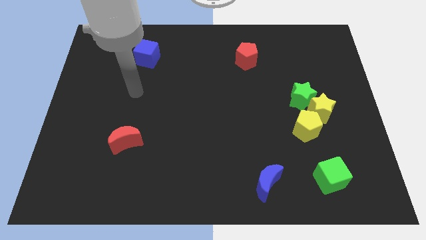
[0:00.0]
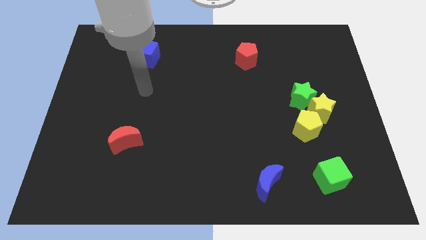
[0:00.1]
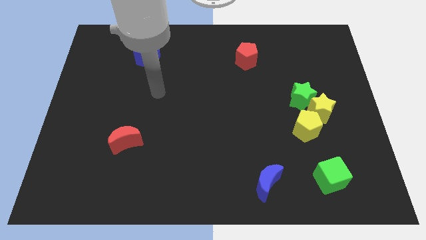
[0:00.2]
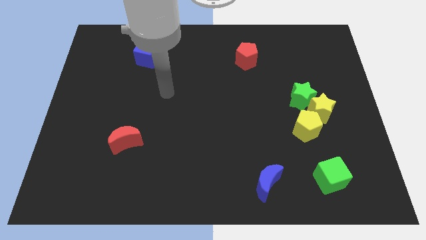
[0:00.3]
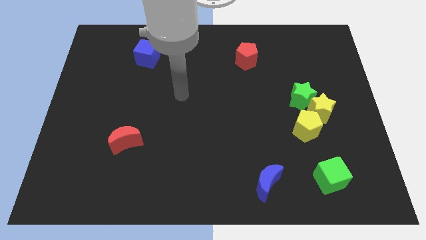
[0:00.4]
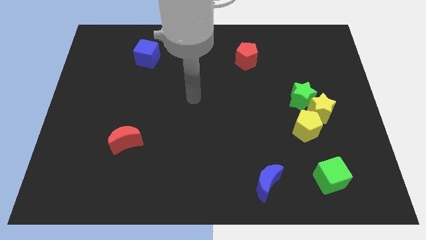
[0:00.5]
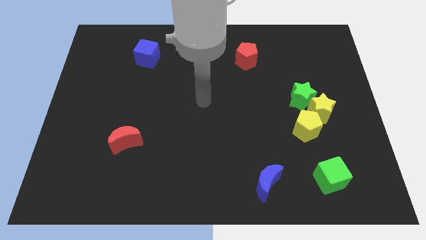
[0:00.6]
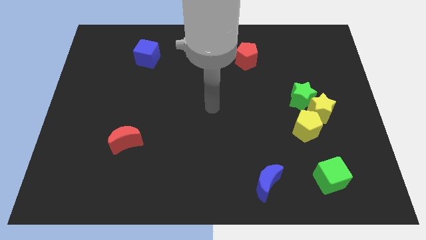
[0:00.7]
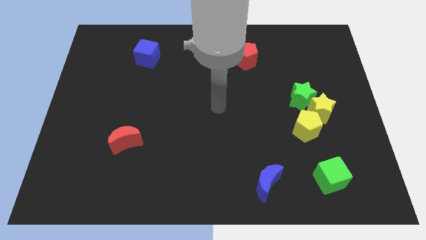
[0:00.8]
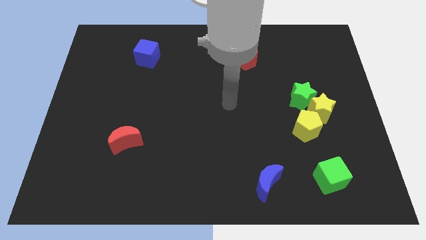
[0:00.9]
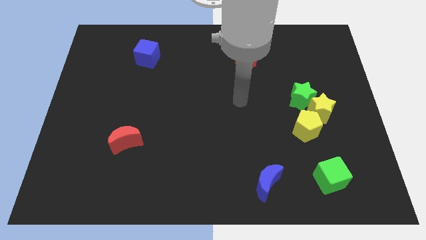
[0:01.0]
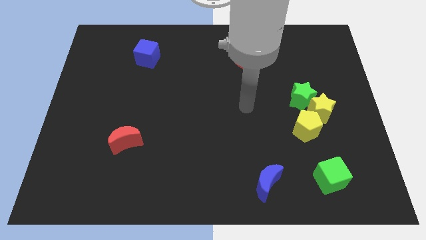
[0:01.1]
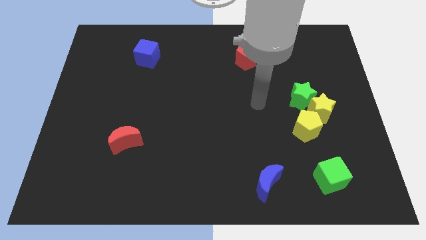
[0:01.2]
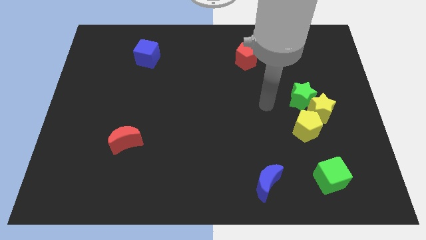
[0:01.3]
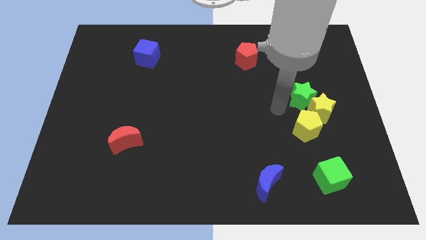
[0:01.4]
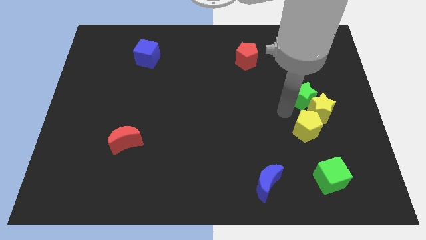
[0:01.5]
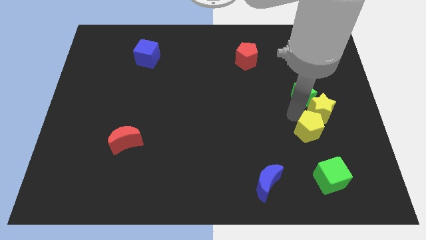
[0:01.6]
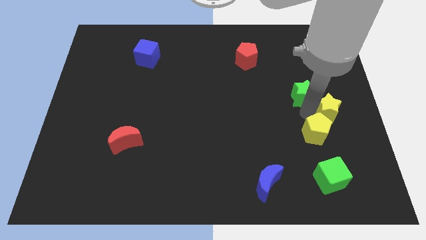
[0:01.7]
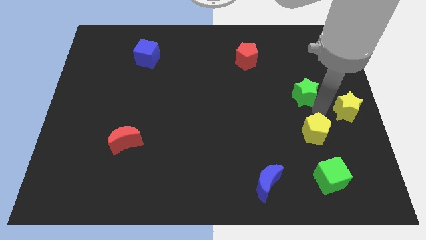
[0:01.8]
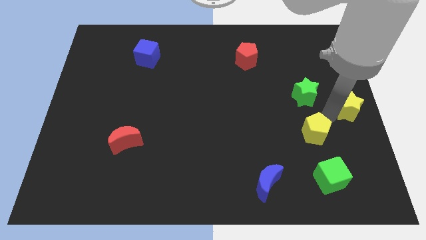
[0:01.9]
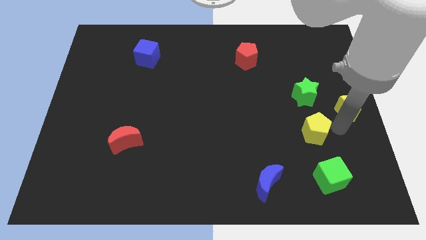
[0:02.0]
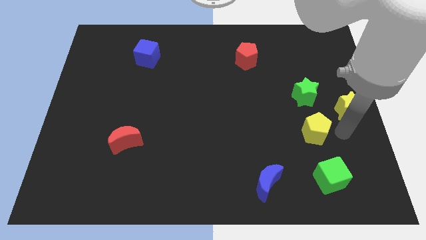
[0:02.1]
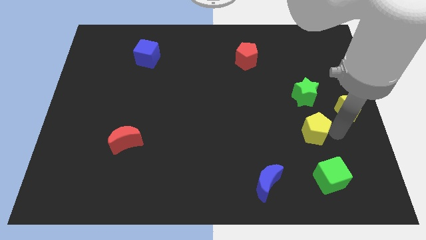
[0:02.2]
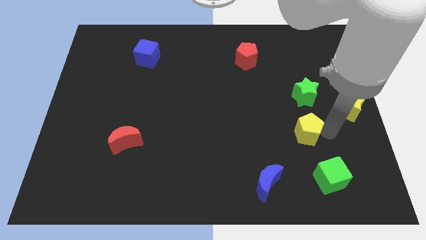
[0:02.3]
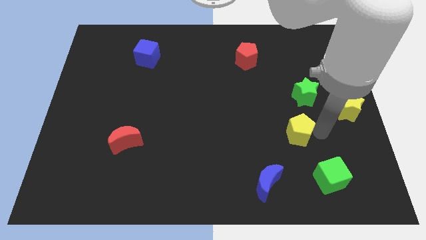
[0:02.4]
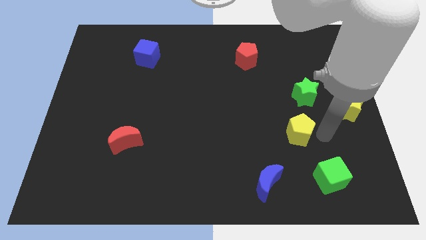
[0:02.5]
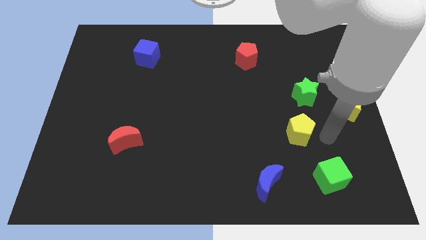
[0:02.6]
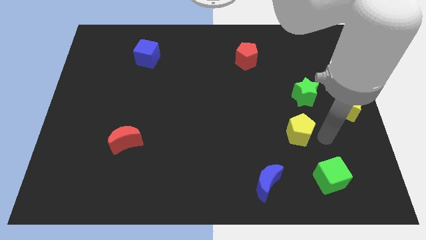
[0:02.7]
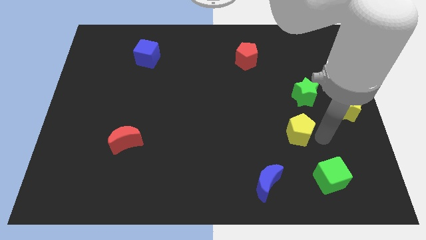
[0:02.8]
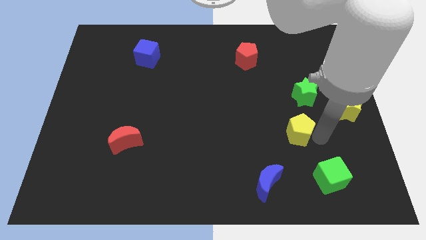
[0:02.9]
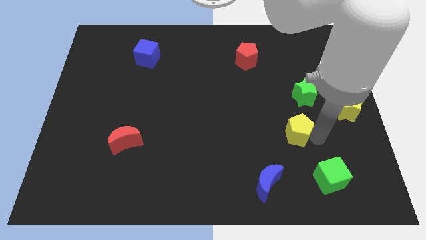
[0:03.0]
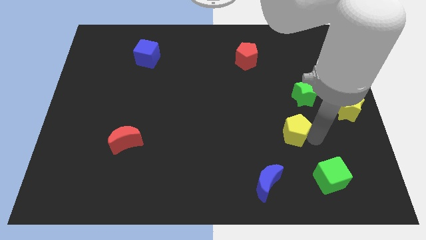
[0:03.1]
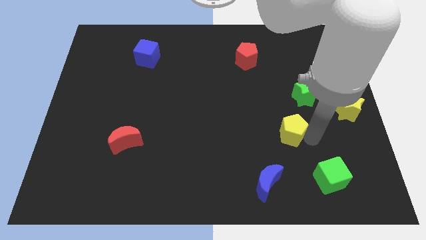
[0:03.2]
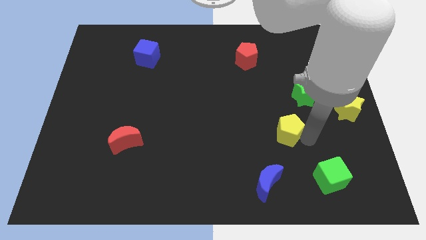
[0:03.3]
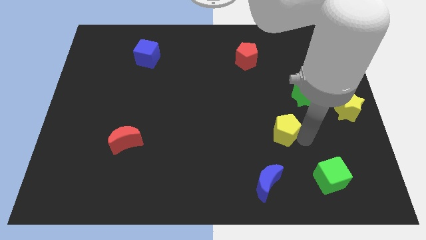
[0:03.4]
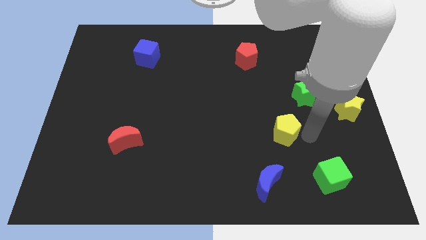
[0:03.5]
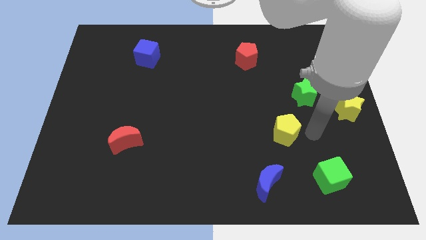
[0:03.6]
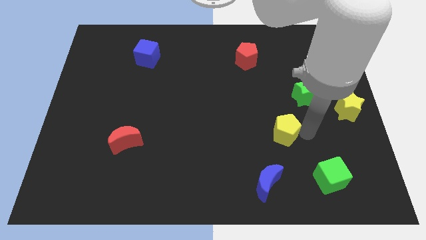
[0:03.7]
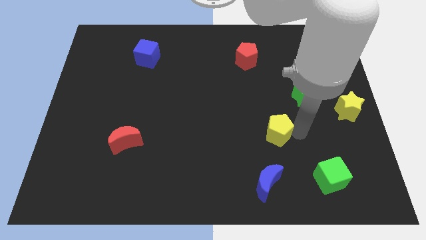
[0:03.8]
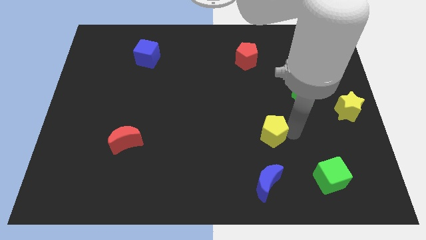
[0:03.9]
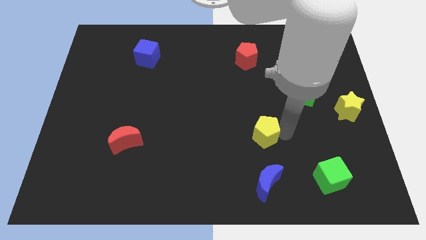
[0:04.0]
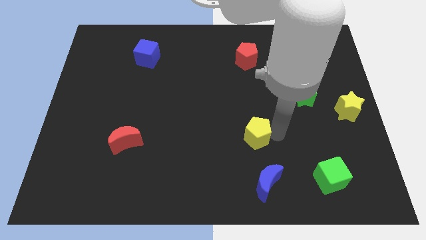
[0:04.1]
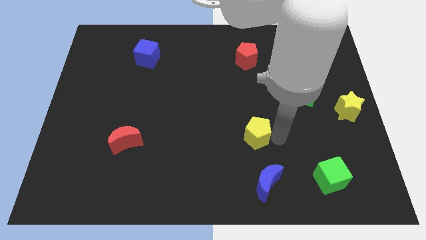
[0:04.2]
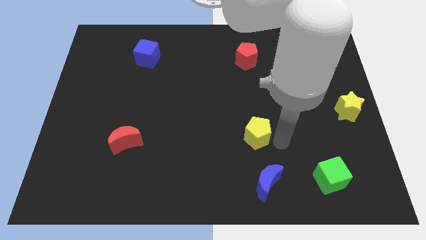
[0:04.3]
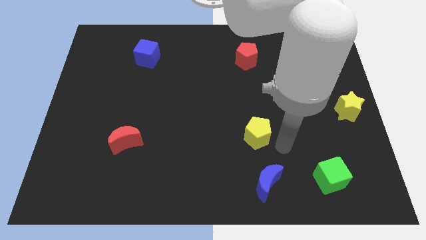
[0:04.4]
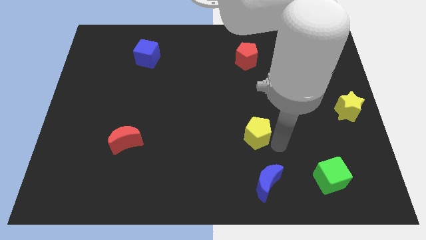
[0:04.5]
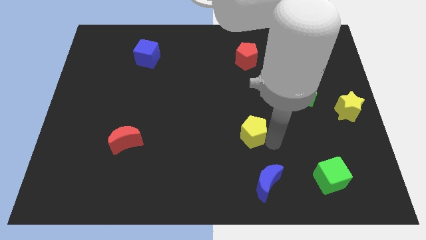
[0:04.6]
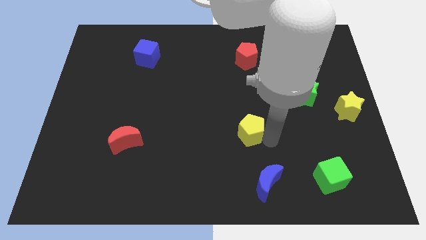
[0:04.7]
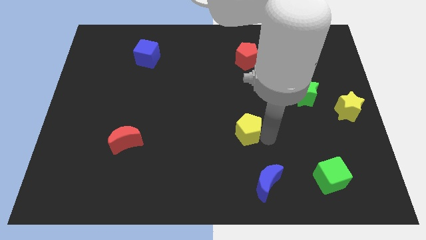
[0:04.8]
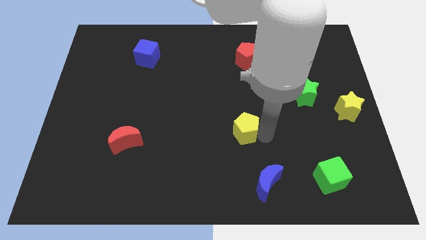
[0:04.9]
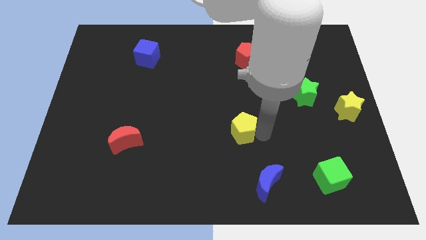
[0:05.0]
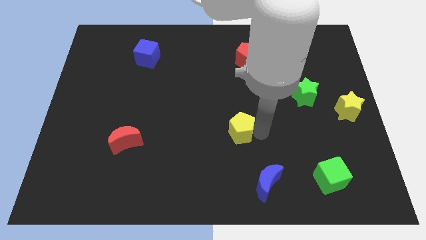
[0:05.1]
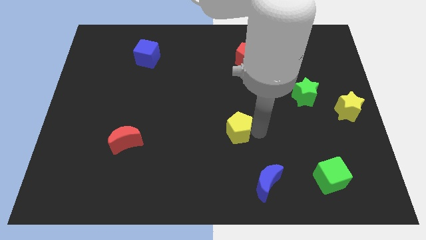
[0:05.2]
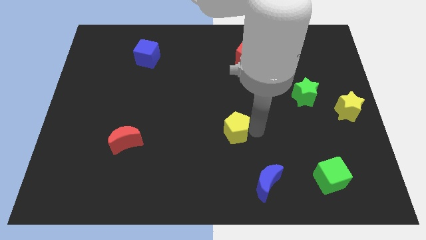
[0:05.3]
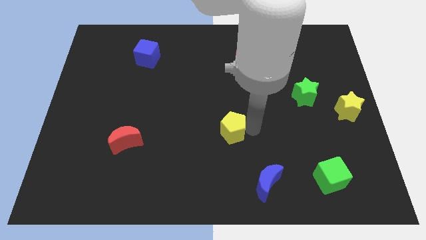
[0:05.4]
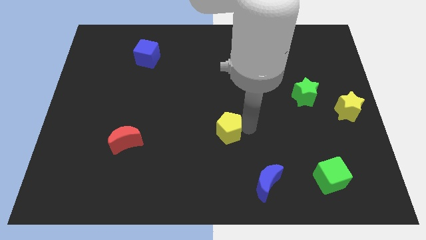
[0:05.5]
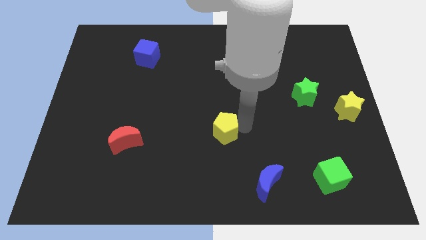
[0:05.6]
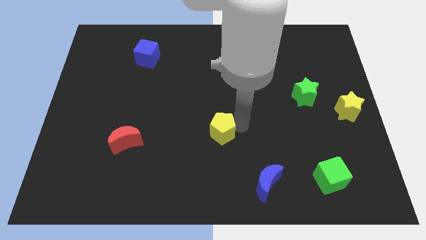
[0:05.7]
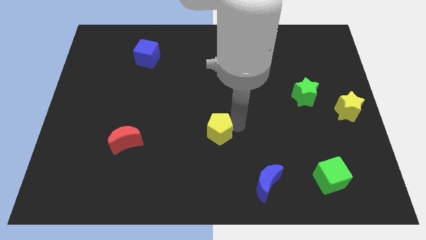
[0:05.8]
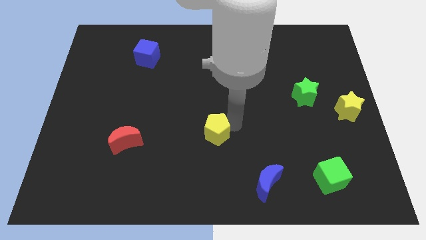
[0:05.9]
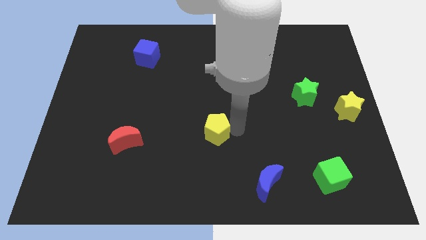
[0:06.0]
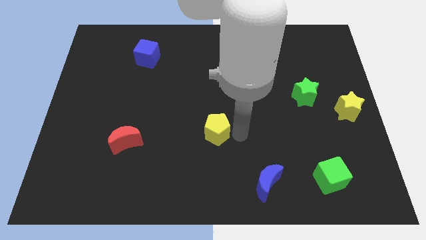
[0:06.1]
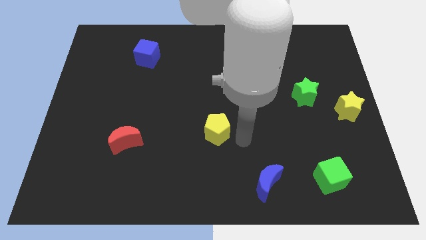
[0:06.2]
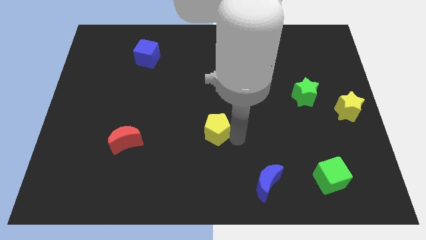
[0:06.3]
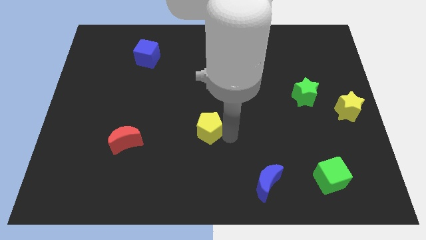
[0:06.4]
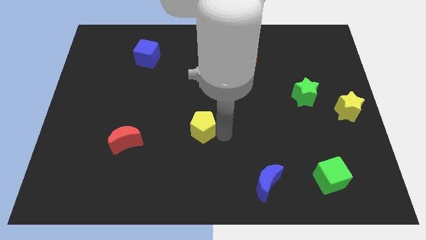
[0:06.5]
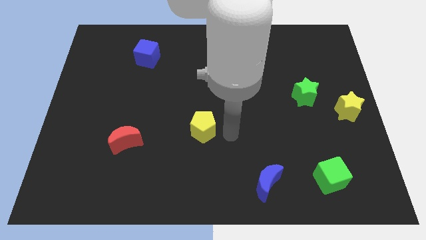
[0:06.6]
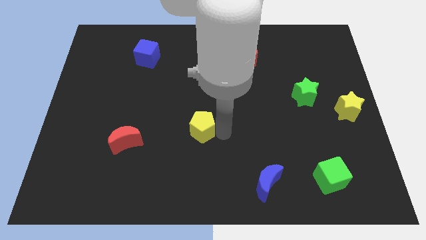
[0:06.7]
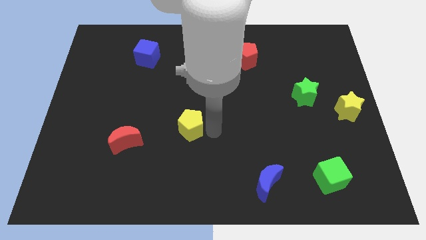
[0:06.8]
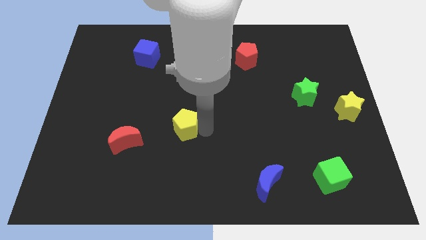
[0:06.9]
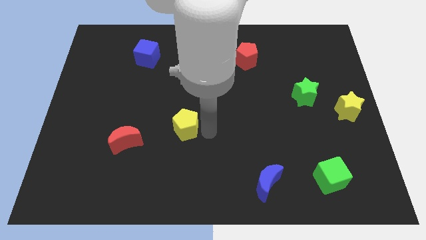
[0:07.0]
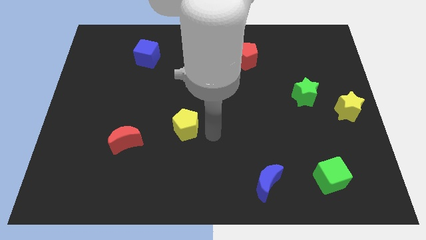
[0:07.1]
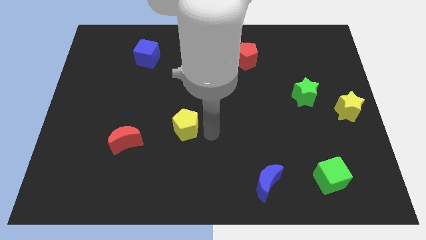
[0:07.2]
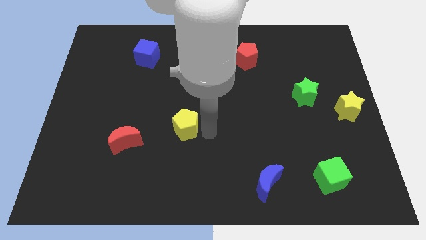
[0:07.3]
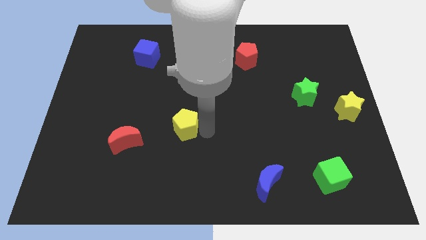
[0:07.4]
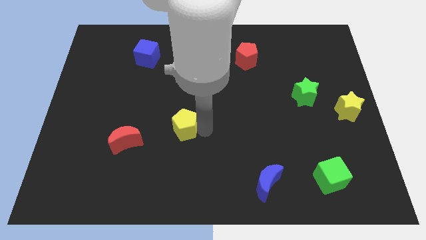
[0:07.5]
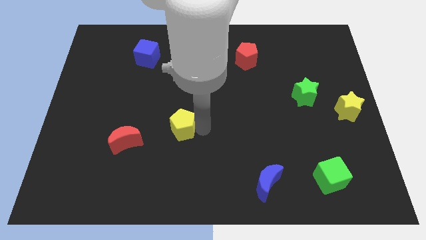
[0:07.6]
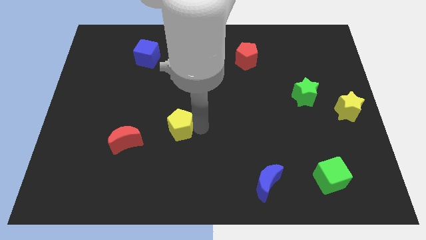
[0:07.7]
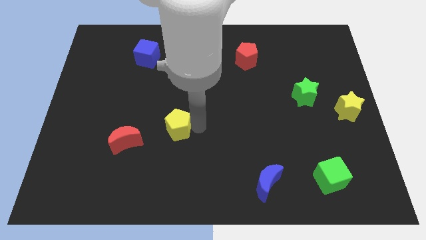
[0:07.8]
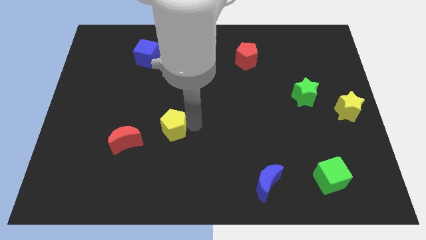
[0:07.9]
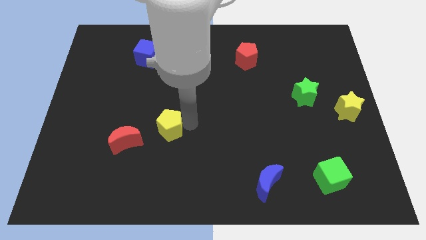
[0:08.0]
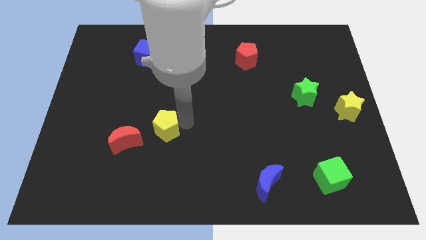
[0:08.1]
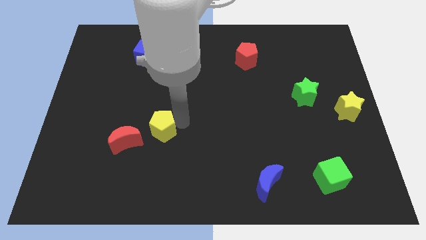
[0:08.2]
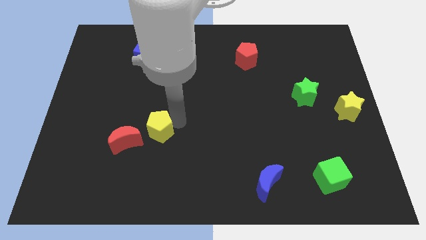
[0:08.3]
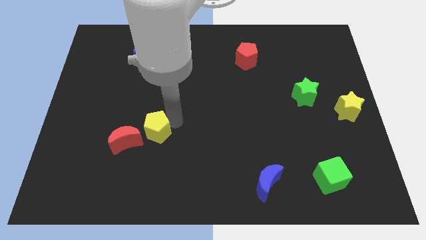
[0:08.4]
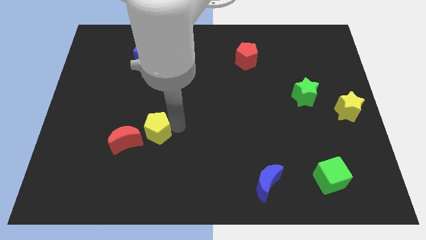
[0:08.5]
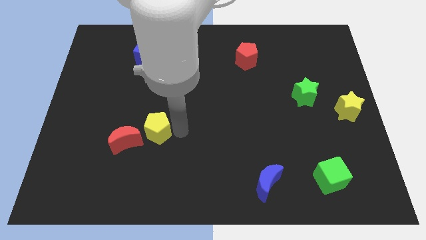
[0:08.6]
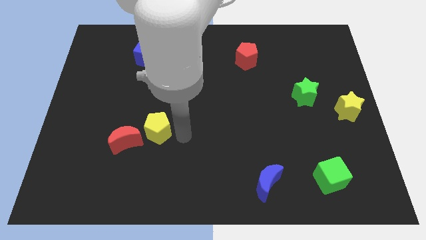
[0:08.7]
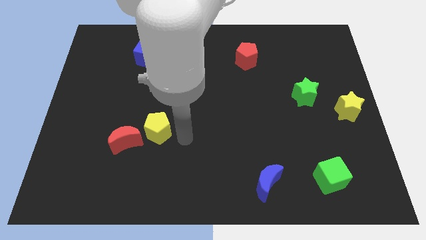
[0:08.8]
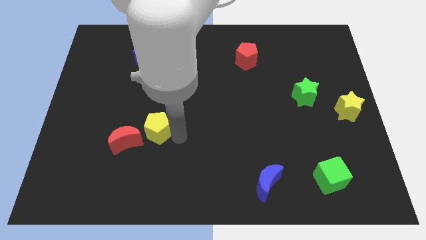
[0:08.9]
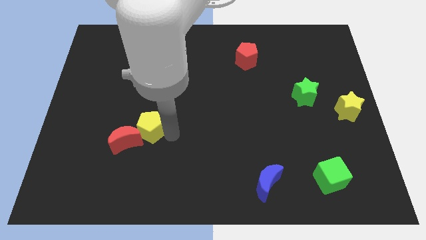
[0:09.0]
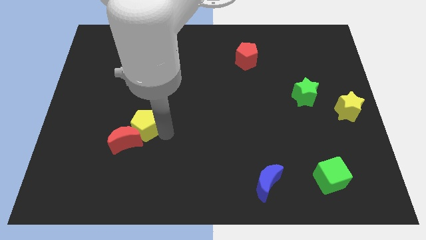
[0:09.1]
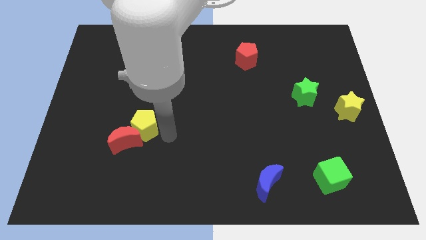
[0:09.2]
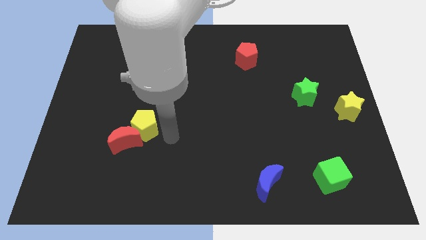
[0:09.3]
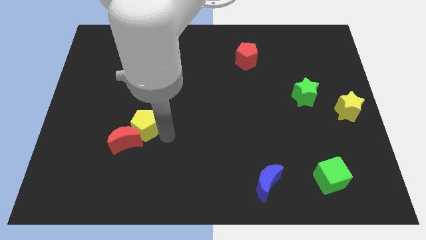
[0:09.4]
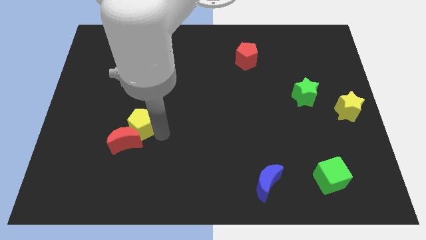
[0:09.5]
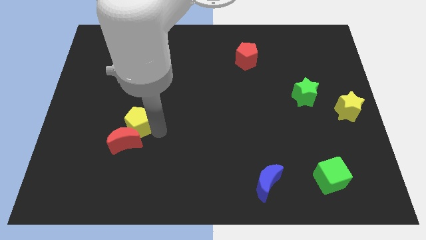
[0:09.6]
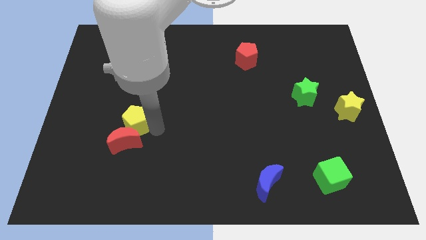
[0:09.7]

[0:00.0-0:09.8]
move the yellow pentagon to the top left of the red moon
